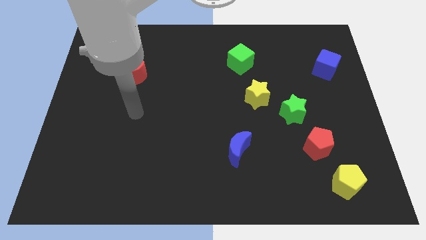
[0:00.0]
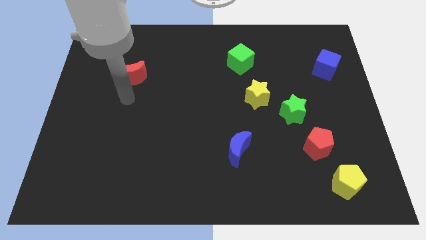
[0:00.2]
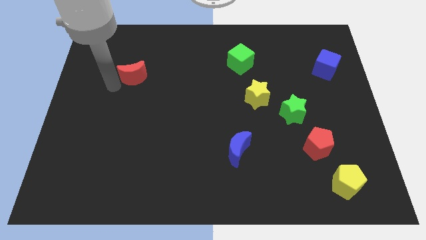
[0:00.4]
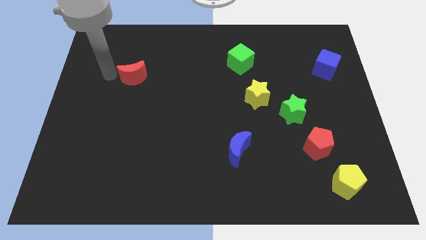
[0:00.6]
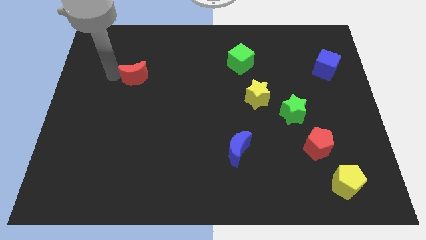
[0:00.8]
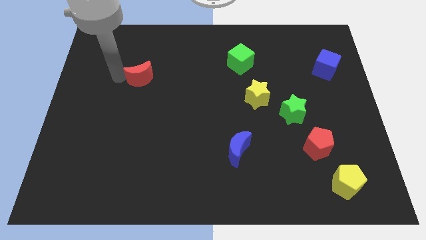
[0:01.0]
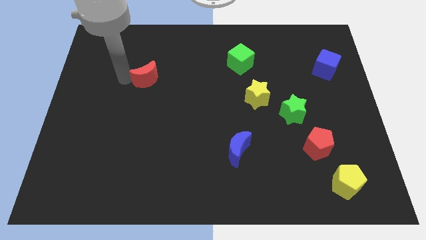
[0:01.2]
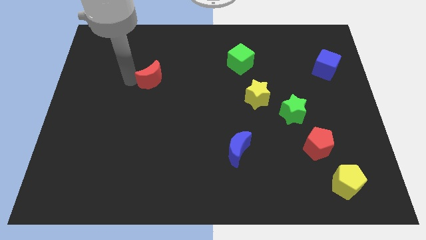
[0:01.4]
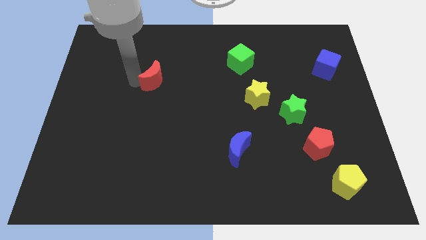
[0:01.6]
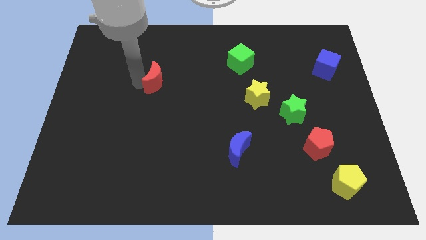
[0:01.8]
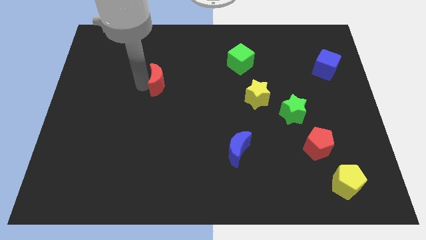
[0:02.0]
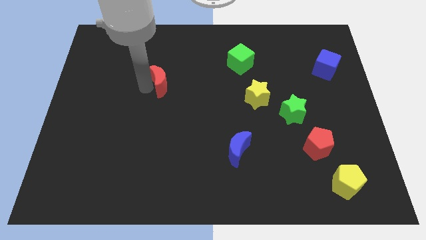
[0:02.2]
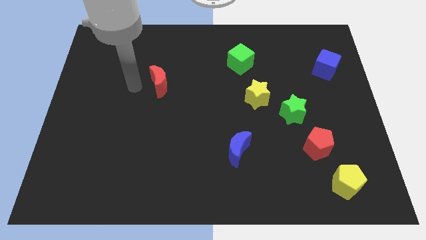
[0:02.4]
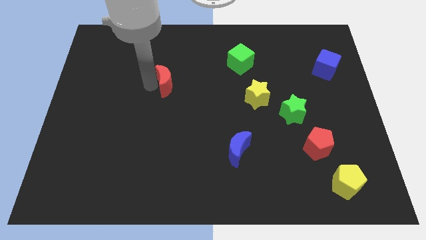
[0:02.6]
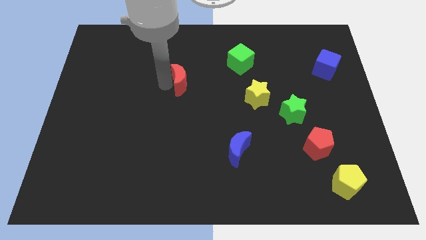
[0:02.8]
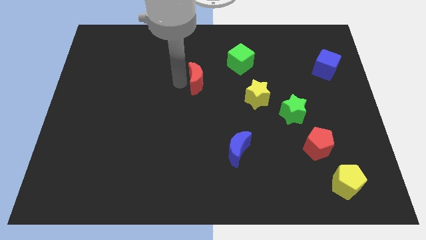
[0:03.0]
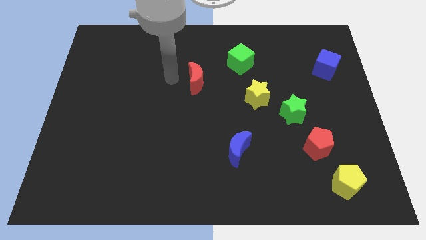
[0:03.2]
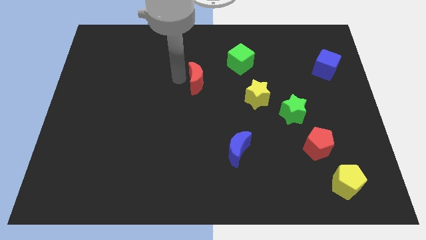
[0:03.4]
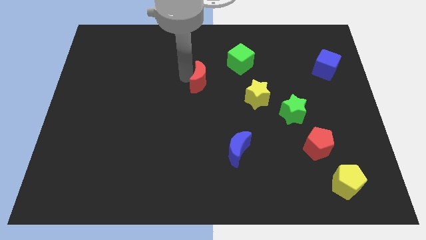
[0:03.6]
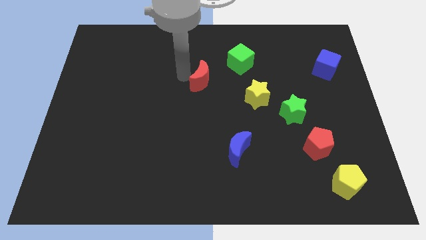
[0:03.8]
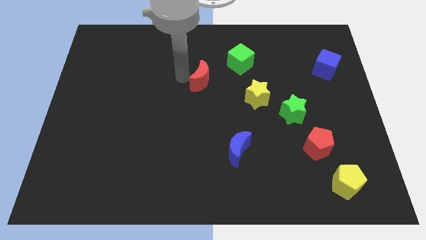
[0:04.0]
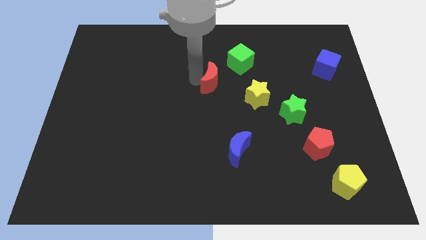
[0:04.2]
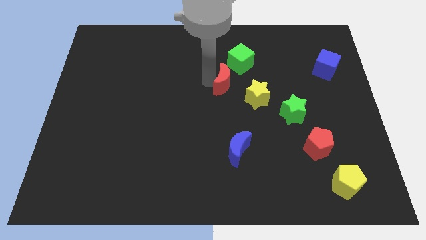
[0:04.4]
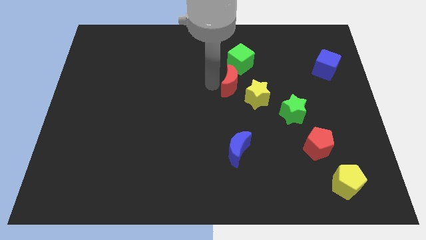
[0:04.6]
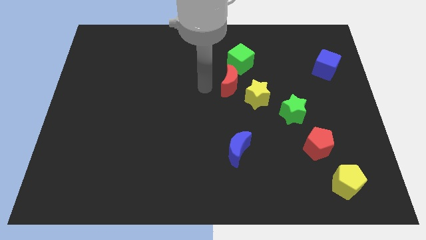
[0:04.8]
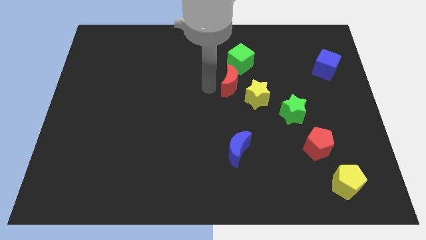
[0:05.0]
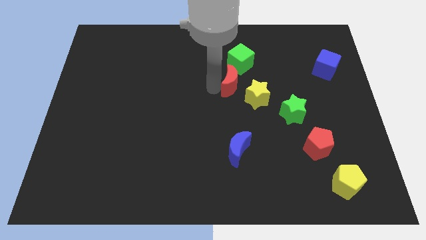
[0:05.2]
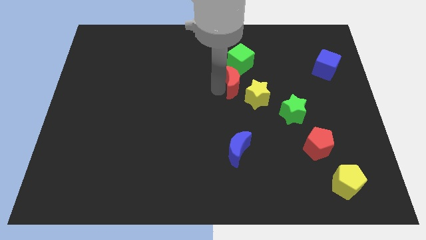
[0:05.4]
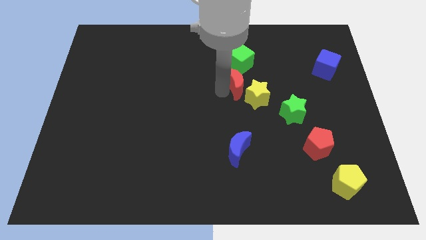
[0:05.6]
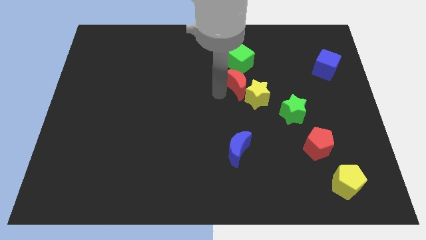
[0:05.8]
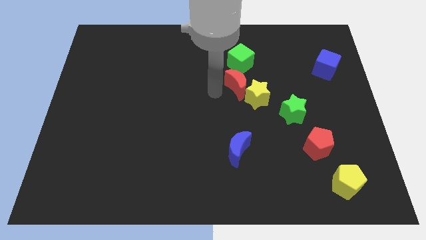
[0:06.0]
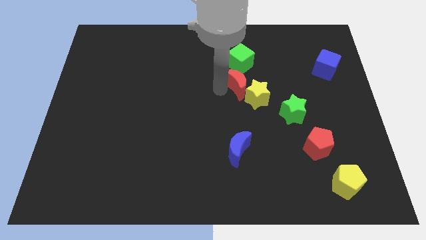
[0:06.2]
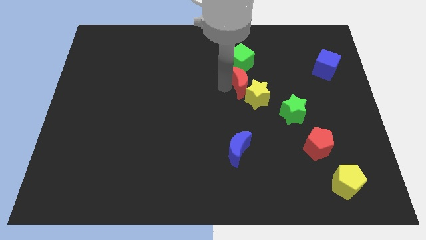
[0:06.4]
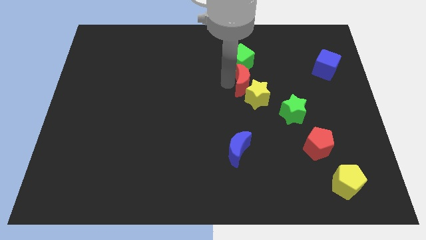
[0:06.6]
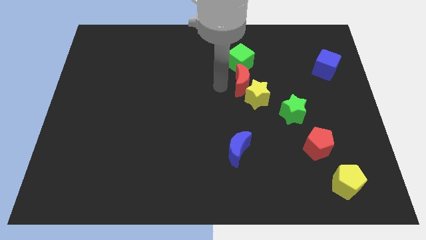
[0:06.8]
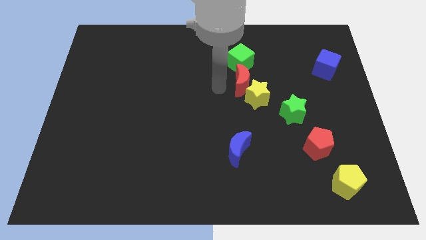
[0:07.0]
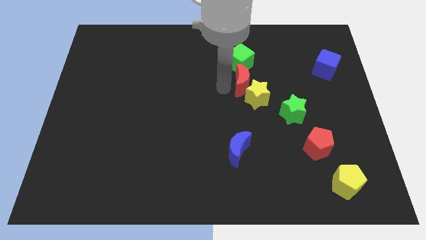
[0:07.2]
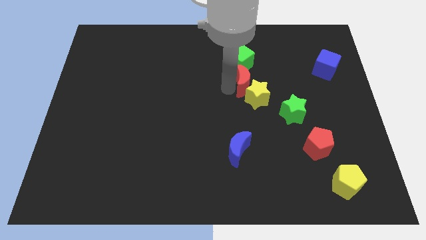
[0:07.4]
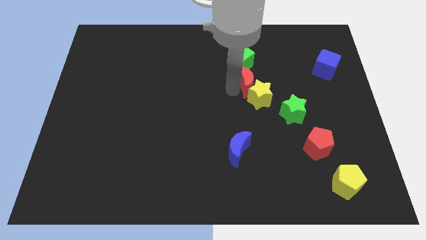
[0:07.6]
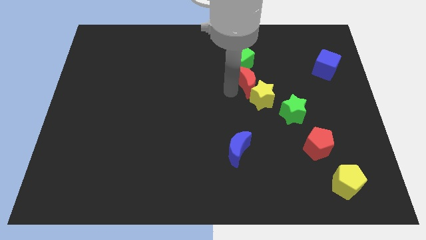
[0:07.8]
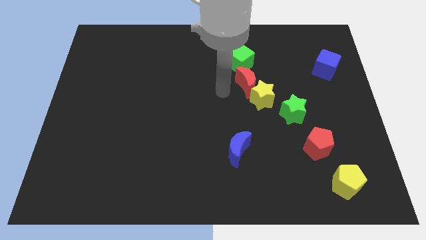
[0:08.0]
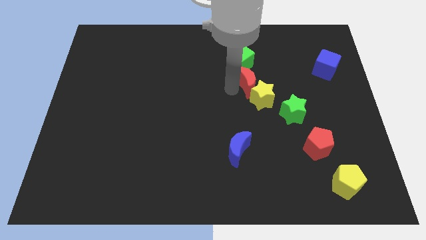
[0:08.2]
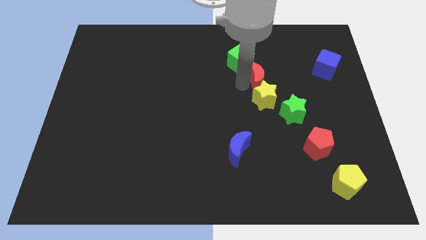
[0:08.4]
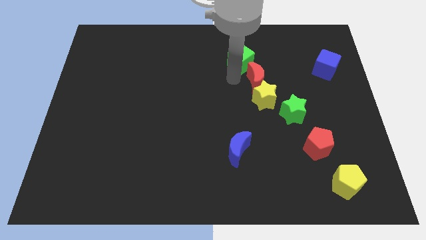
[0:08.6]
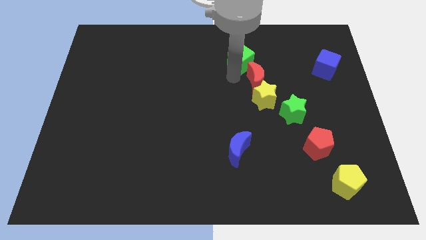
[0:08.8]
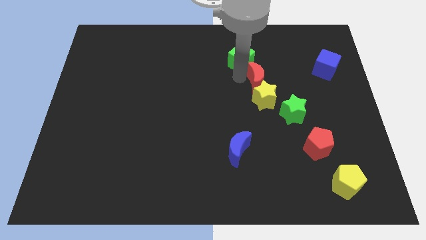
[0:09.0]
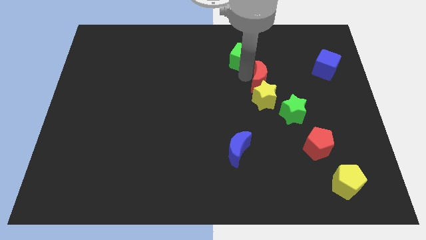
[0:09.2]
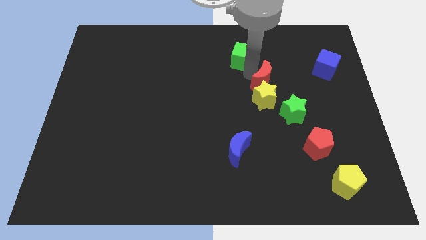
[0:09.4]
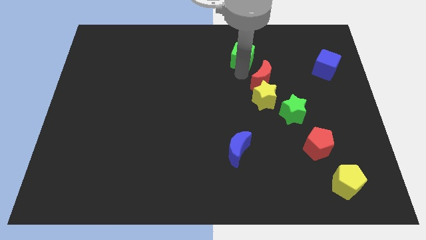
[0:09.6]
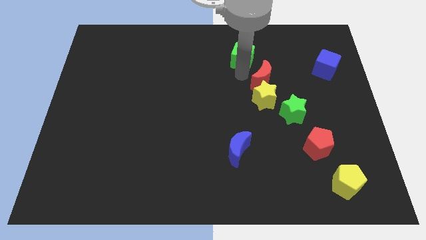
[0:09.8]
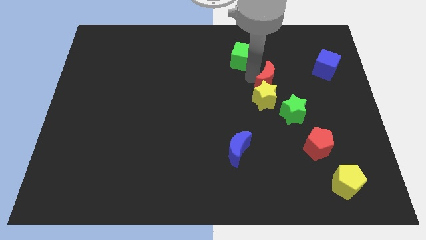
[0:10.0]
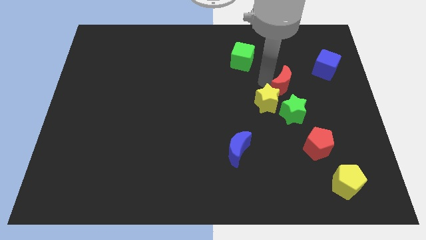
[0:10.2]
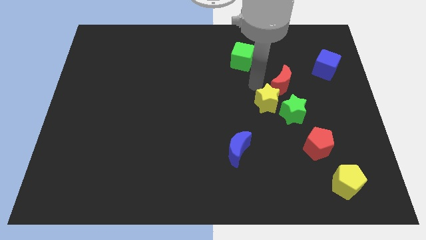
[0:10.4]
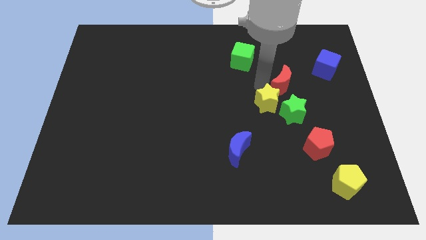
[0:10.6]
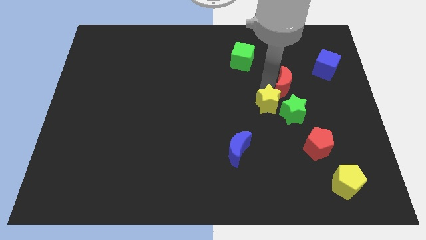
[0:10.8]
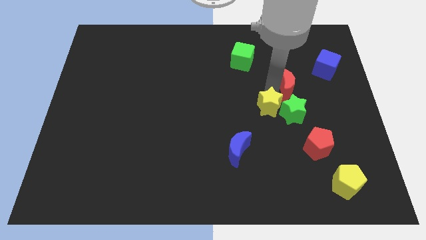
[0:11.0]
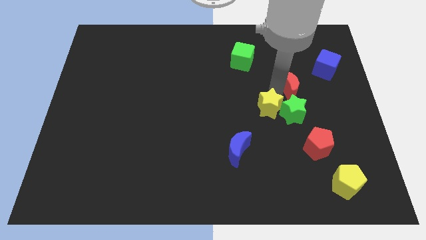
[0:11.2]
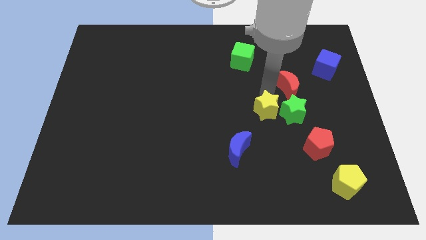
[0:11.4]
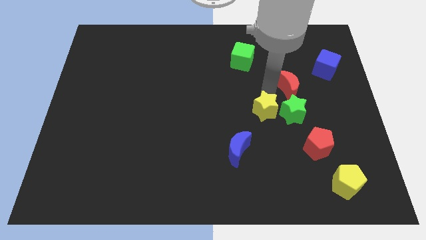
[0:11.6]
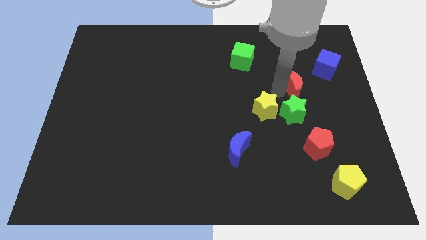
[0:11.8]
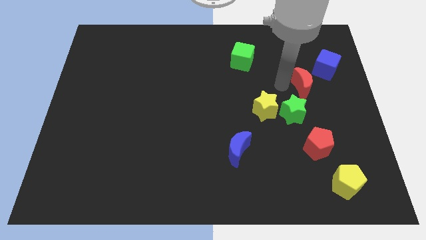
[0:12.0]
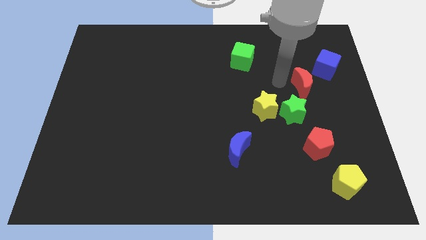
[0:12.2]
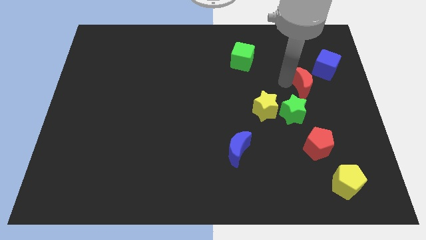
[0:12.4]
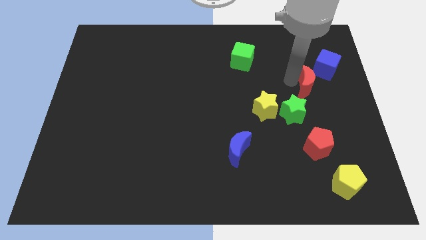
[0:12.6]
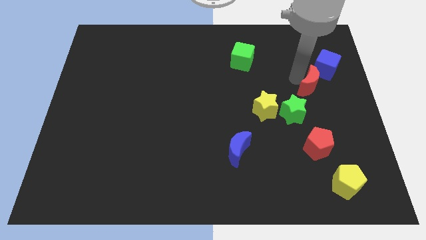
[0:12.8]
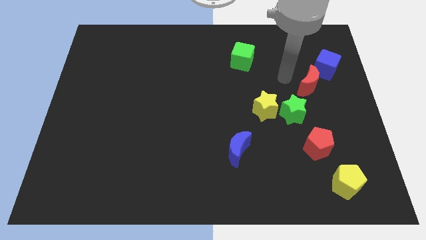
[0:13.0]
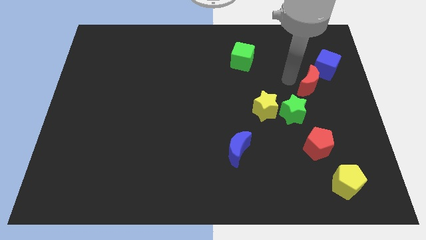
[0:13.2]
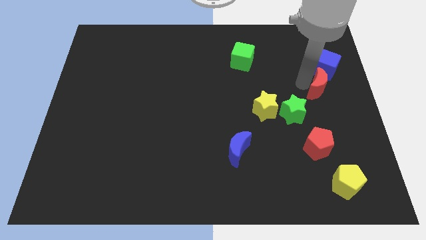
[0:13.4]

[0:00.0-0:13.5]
put the red moon to the right side
